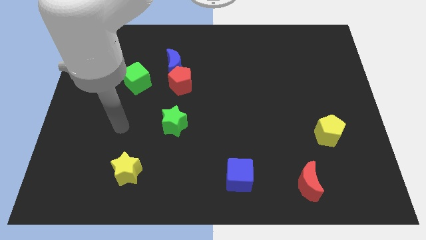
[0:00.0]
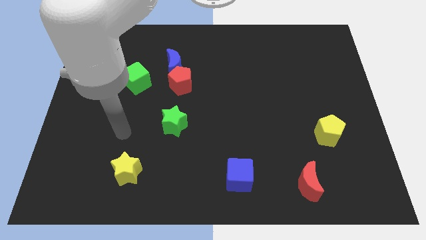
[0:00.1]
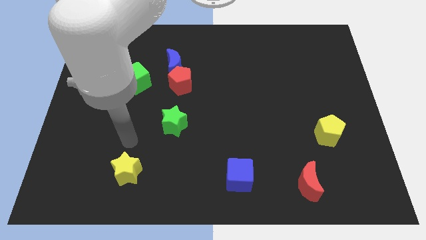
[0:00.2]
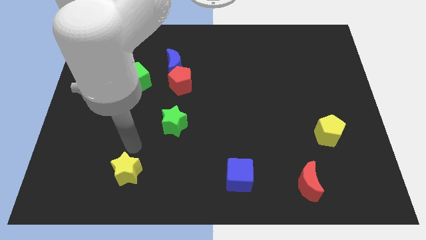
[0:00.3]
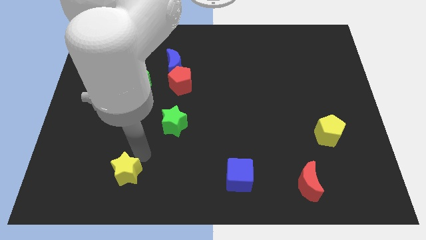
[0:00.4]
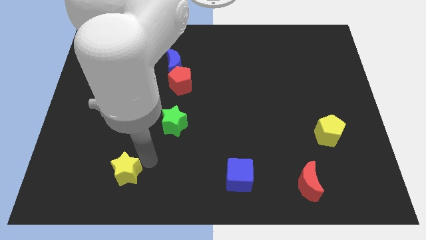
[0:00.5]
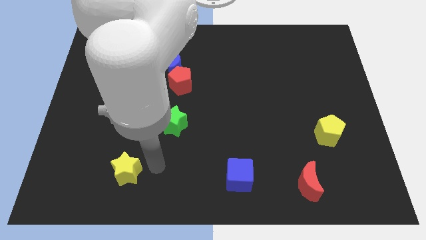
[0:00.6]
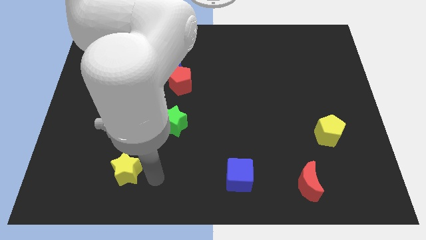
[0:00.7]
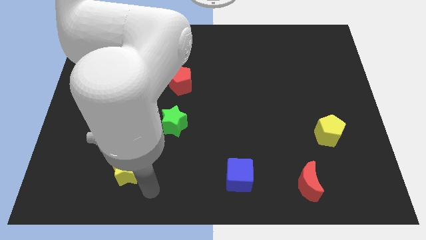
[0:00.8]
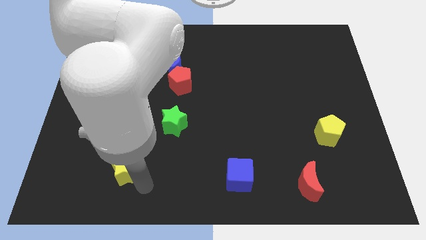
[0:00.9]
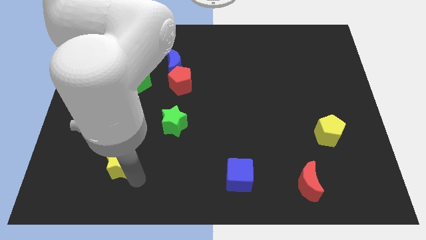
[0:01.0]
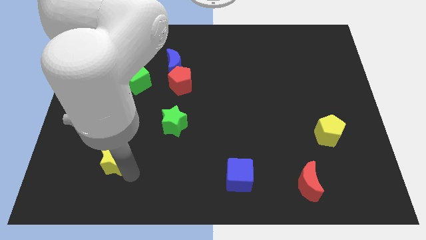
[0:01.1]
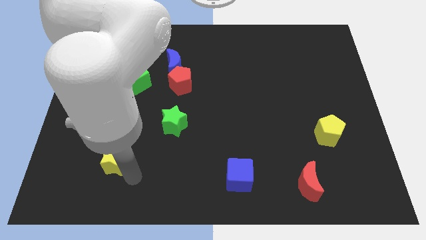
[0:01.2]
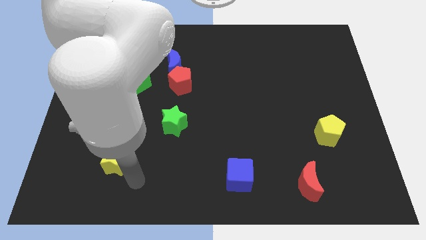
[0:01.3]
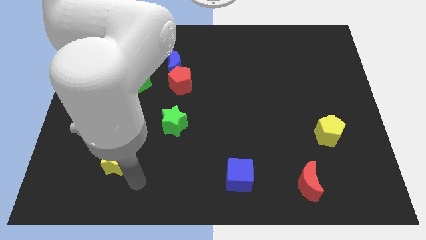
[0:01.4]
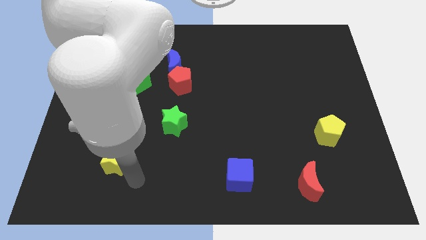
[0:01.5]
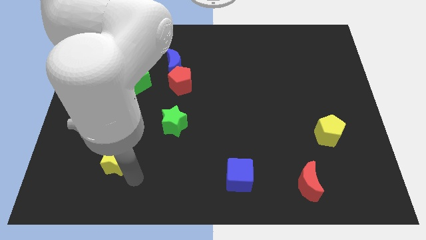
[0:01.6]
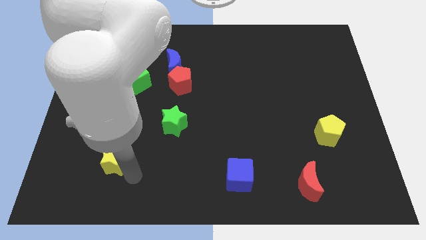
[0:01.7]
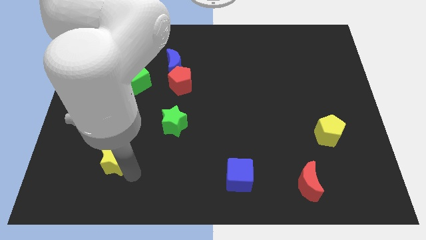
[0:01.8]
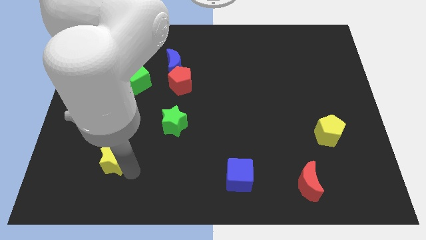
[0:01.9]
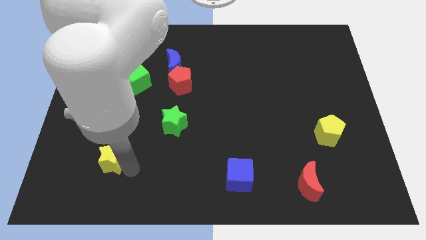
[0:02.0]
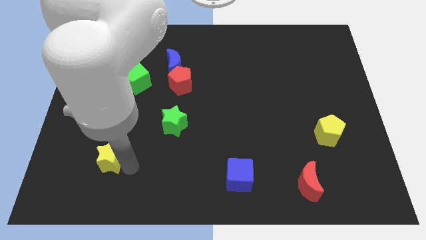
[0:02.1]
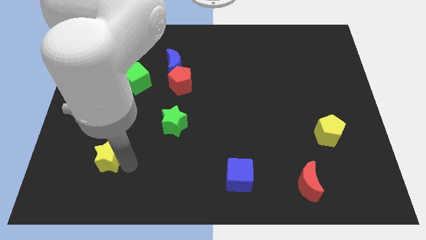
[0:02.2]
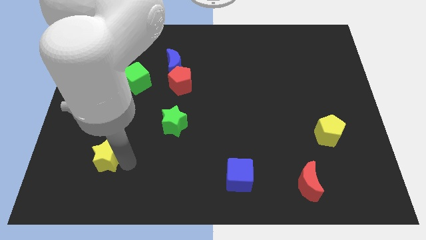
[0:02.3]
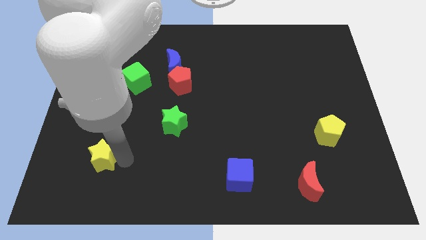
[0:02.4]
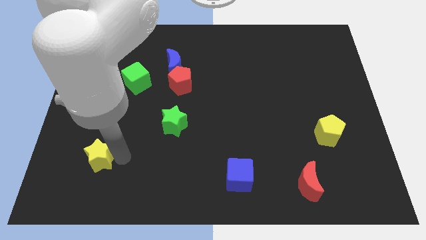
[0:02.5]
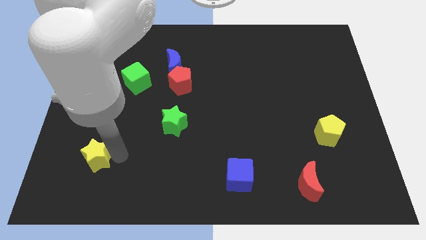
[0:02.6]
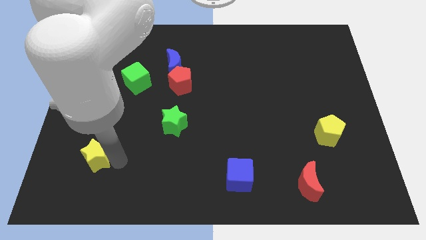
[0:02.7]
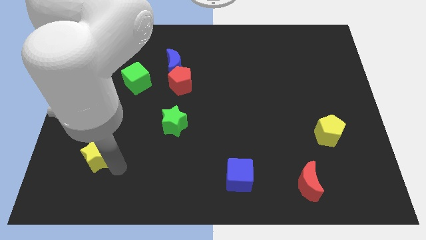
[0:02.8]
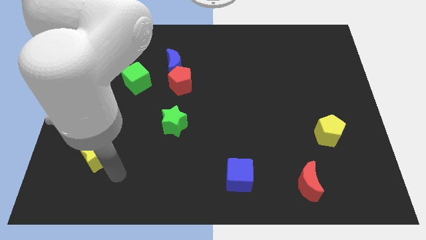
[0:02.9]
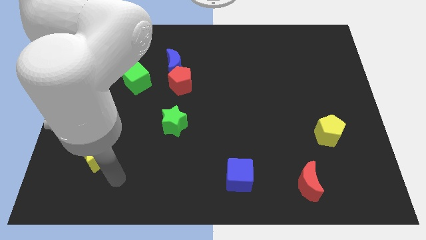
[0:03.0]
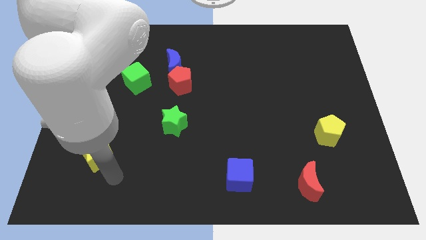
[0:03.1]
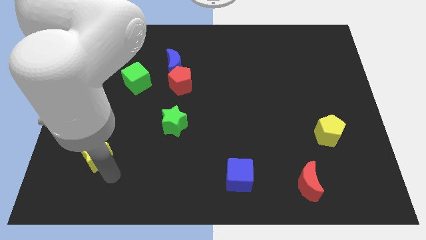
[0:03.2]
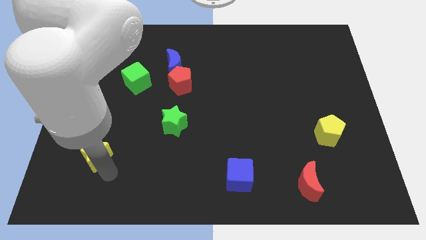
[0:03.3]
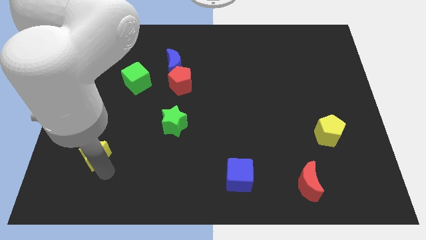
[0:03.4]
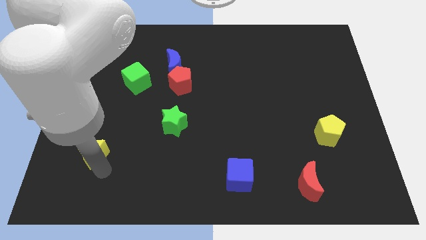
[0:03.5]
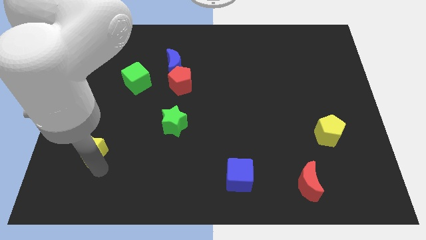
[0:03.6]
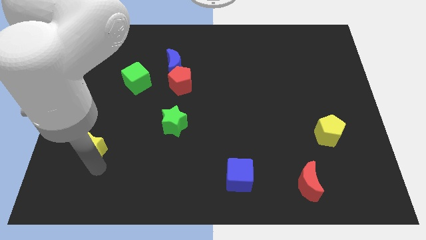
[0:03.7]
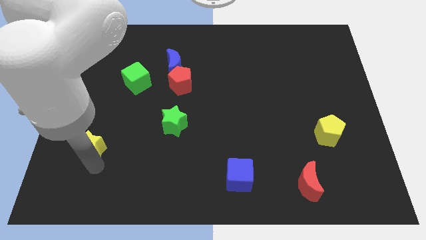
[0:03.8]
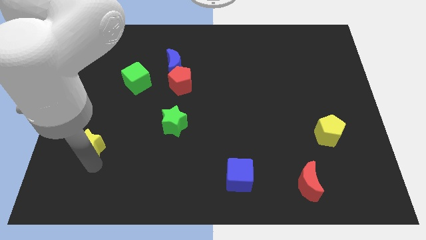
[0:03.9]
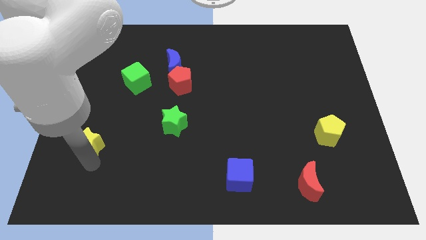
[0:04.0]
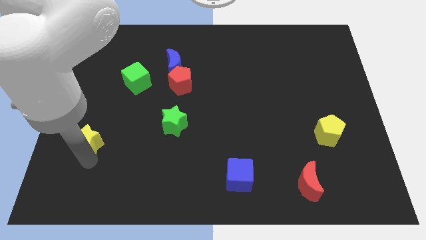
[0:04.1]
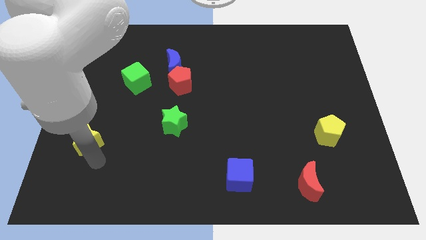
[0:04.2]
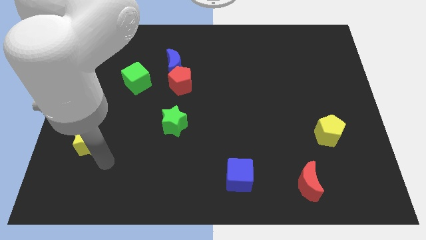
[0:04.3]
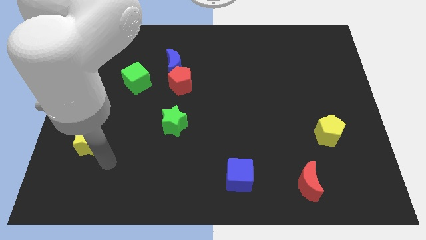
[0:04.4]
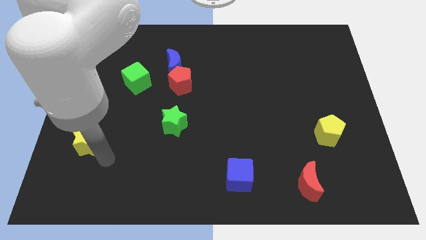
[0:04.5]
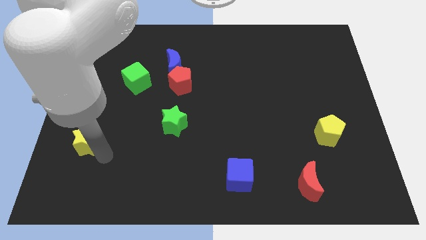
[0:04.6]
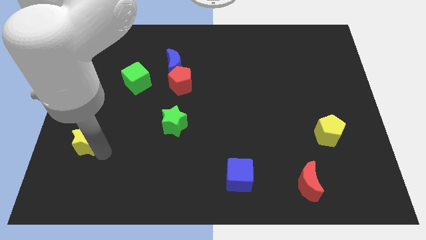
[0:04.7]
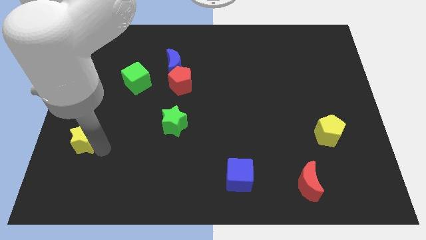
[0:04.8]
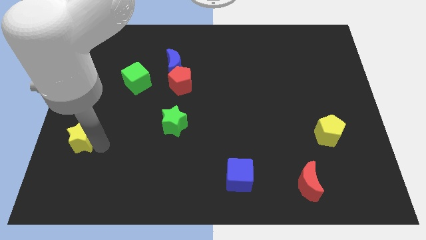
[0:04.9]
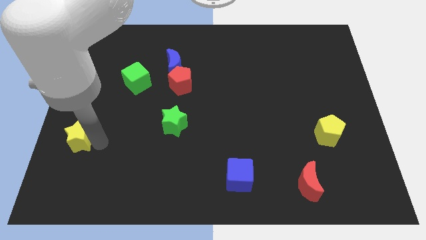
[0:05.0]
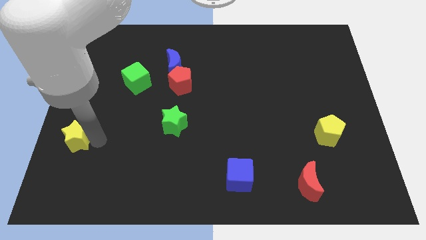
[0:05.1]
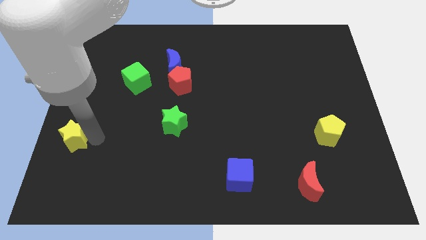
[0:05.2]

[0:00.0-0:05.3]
push the yellow star to the left side

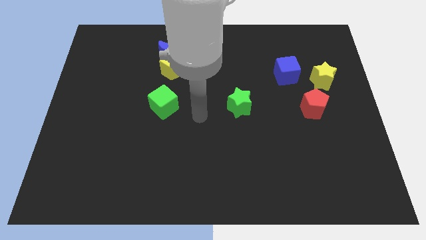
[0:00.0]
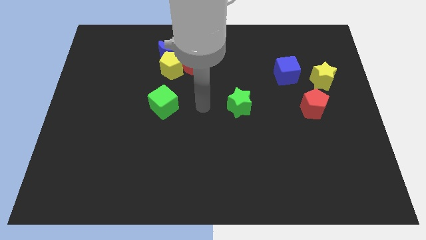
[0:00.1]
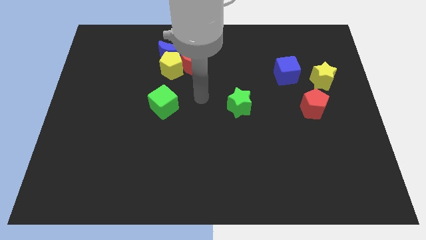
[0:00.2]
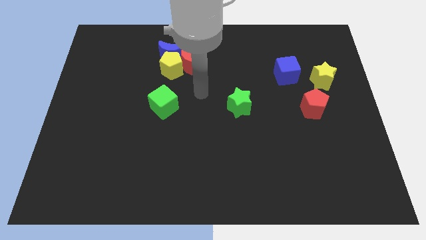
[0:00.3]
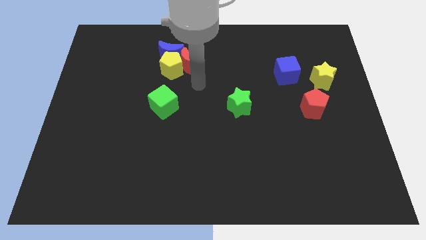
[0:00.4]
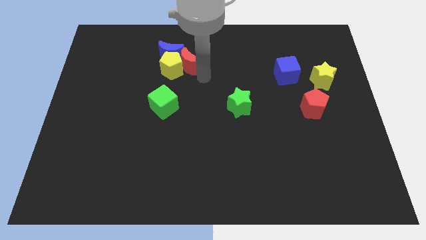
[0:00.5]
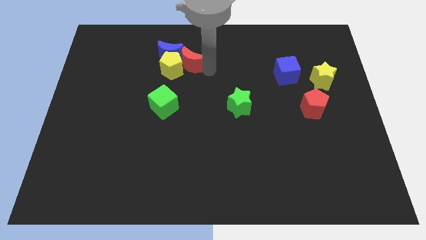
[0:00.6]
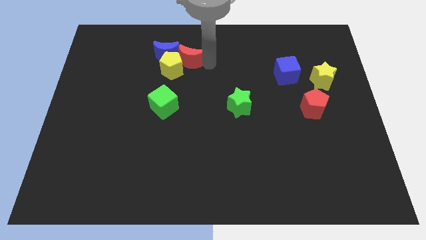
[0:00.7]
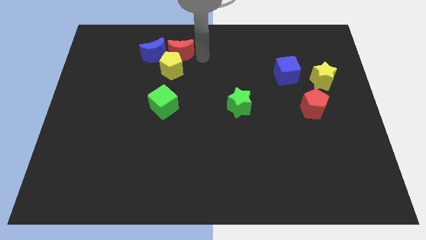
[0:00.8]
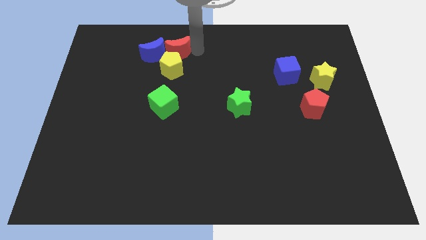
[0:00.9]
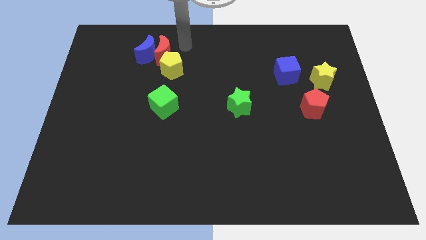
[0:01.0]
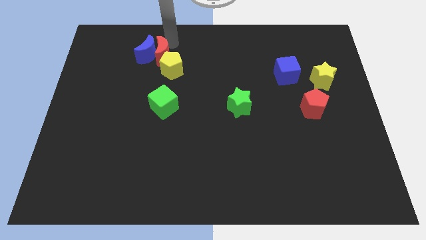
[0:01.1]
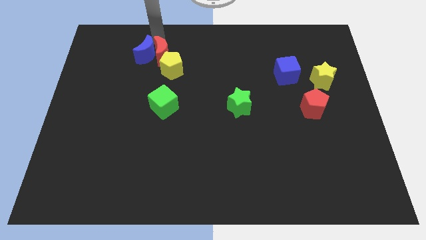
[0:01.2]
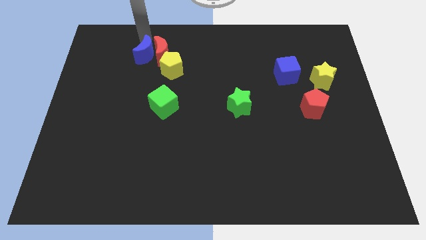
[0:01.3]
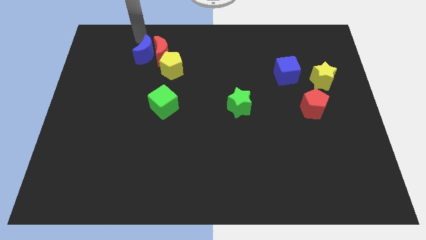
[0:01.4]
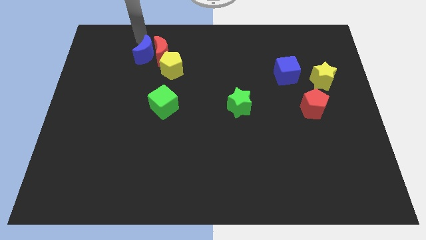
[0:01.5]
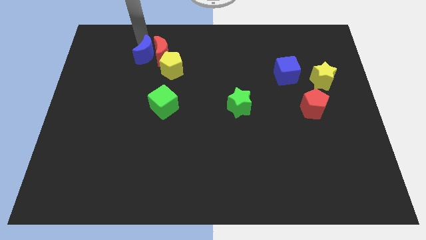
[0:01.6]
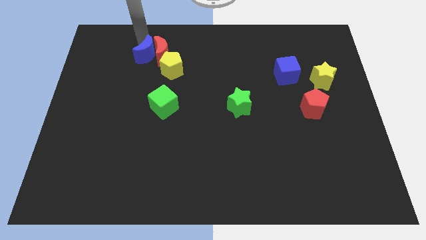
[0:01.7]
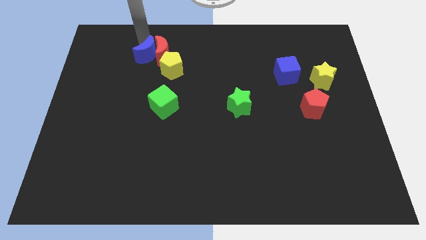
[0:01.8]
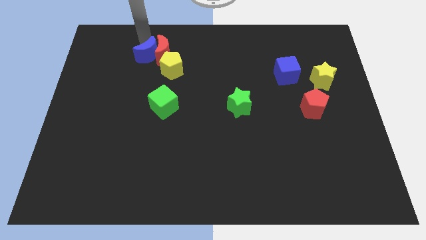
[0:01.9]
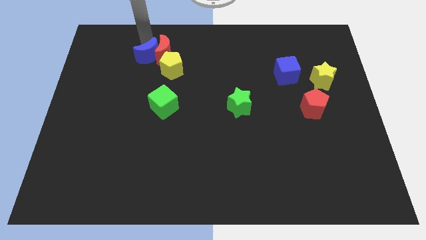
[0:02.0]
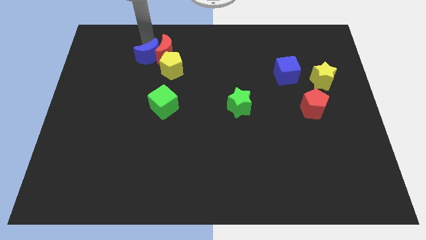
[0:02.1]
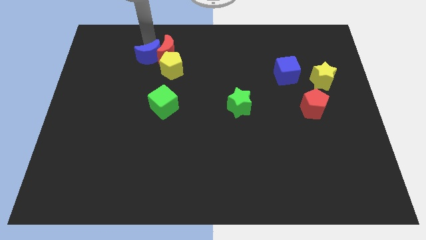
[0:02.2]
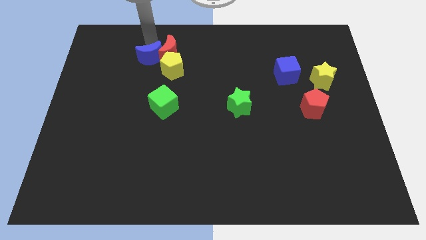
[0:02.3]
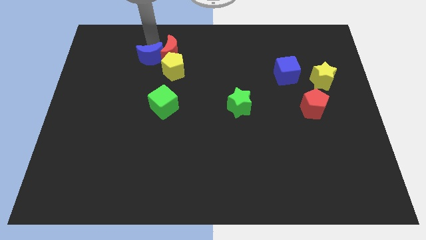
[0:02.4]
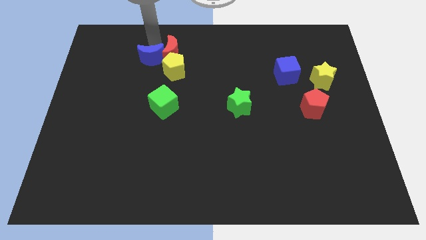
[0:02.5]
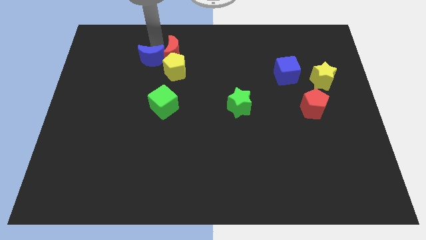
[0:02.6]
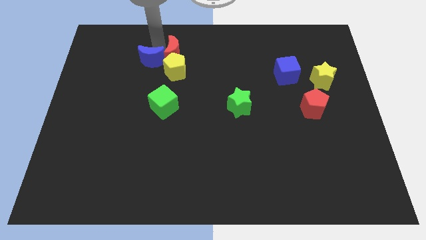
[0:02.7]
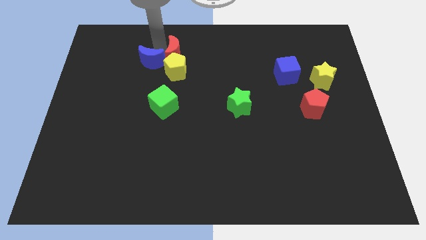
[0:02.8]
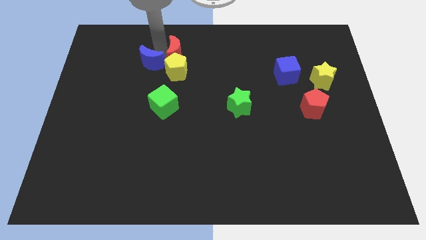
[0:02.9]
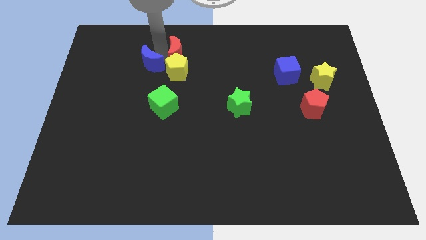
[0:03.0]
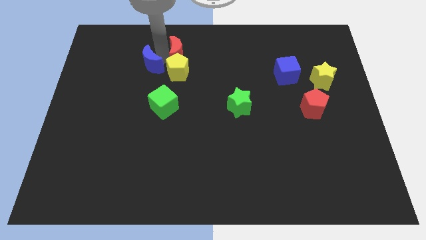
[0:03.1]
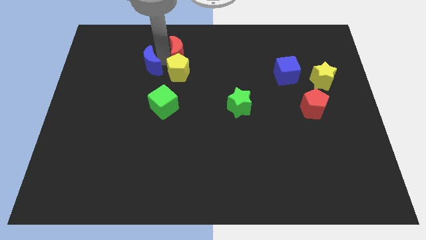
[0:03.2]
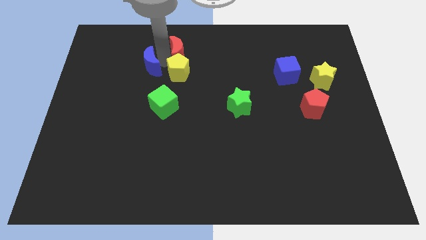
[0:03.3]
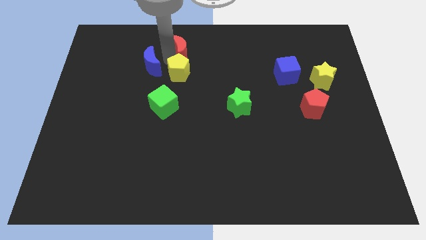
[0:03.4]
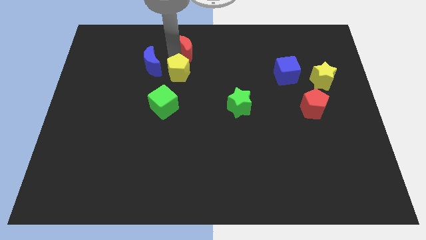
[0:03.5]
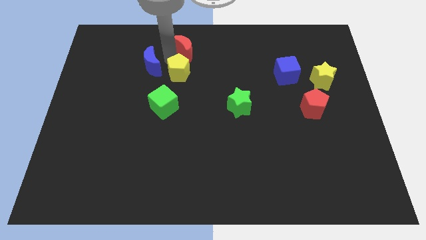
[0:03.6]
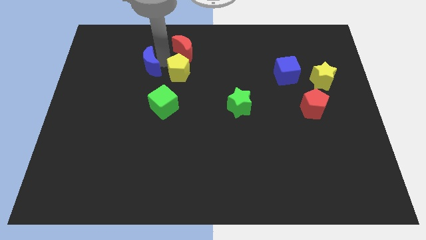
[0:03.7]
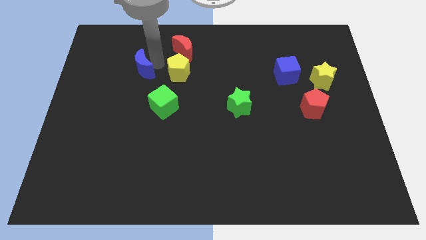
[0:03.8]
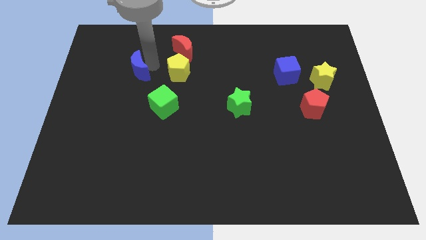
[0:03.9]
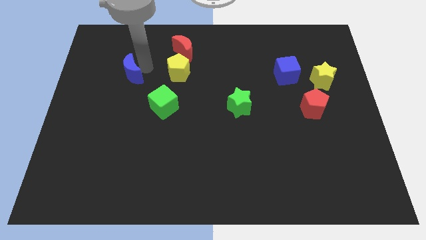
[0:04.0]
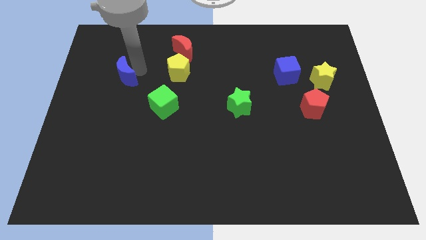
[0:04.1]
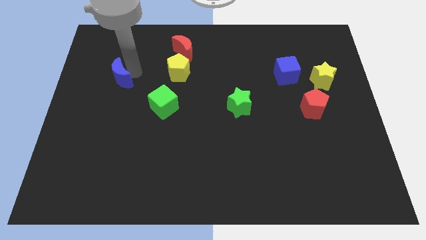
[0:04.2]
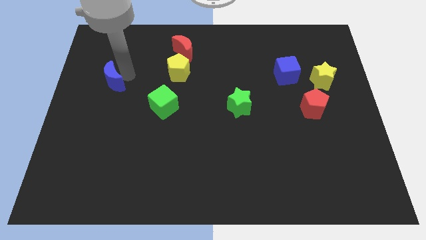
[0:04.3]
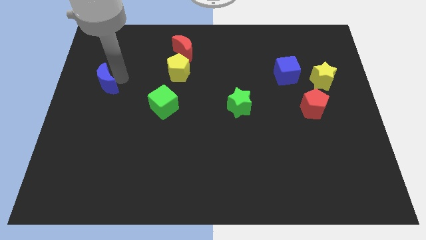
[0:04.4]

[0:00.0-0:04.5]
push the blue moon to the center left
